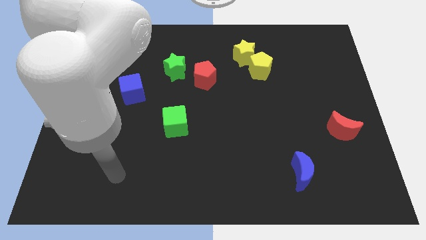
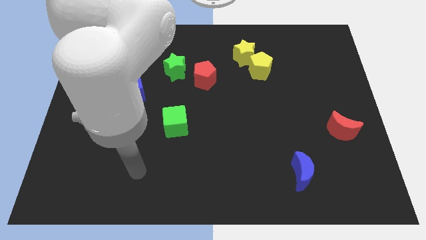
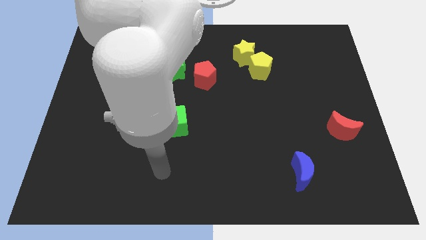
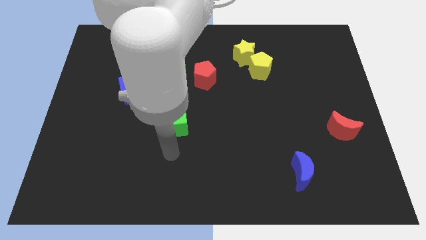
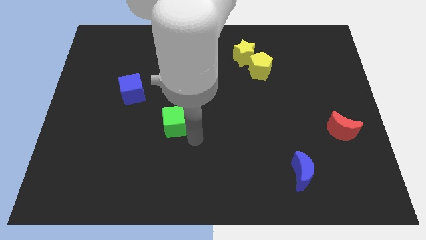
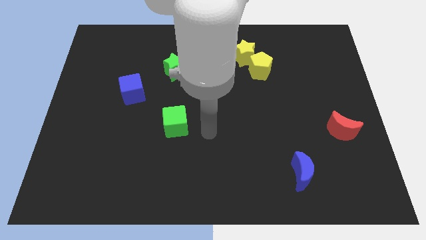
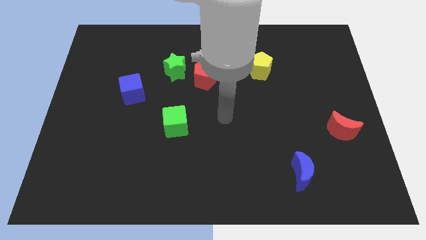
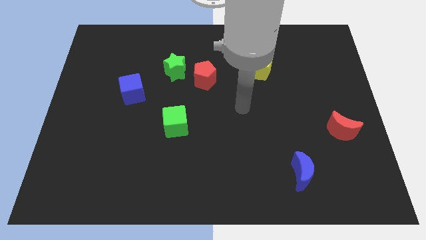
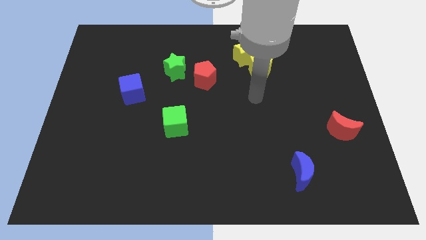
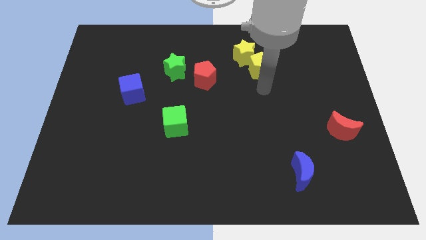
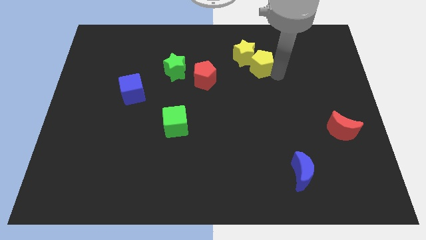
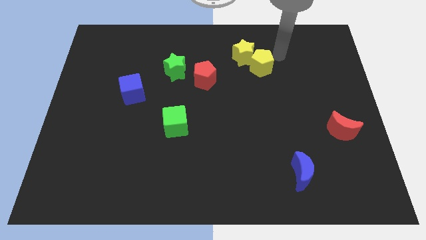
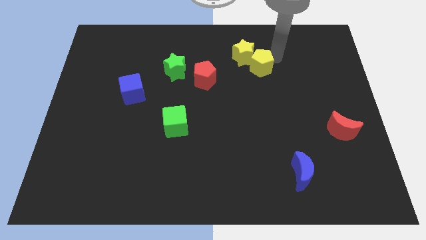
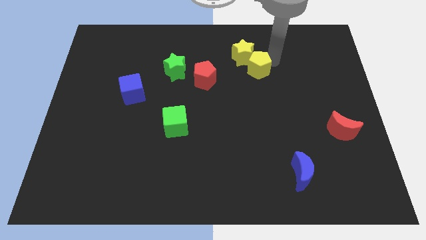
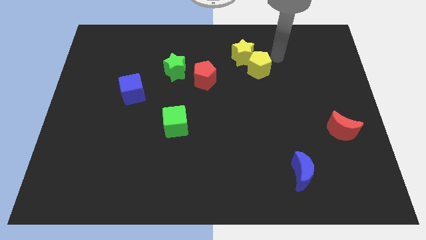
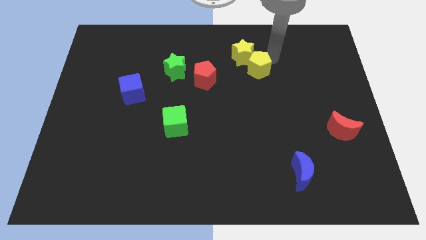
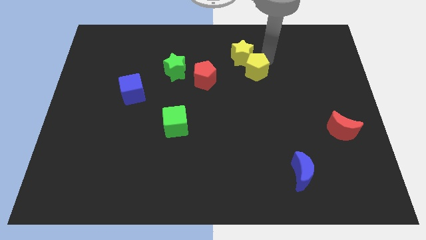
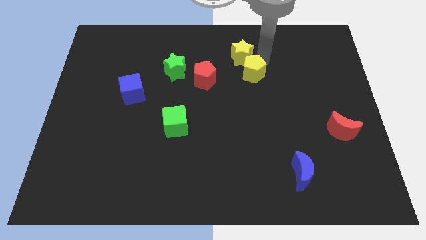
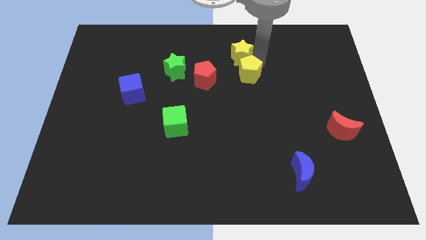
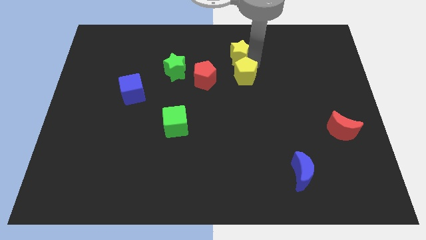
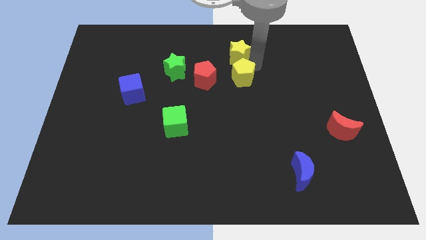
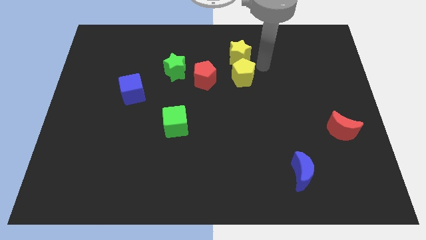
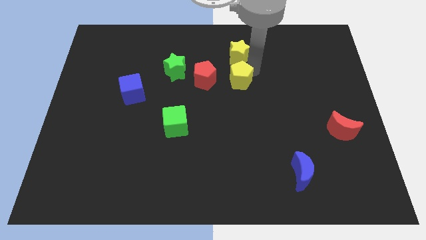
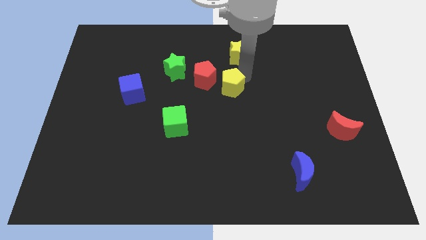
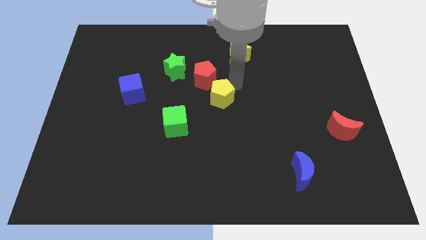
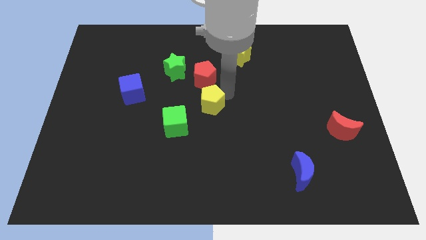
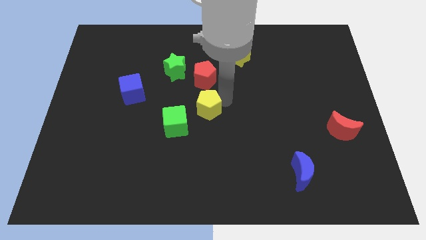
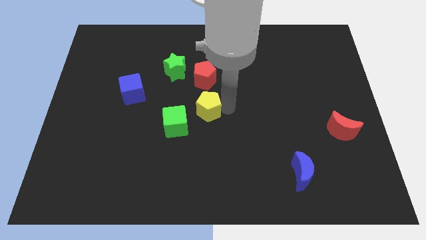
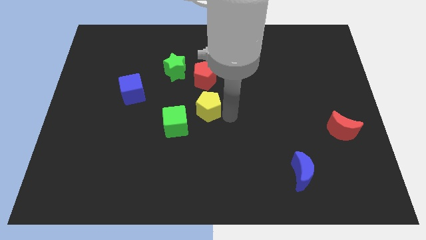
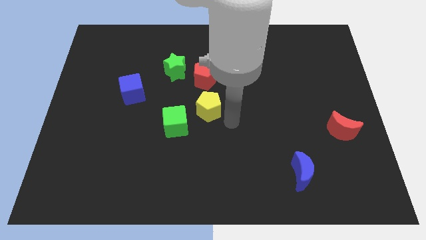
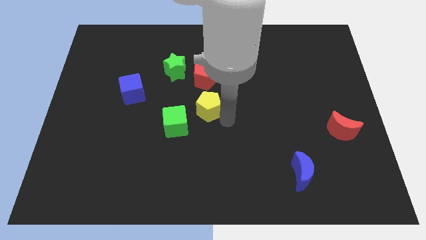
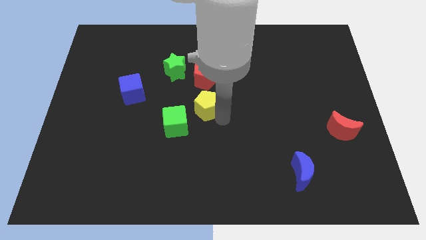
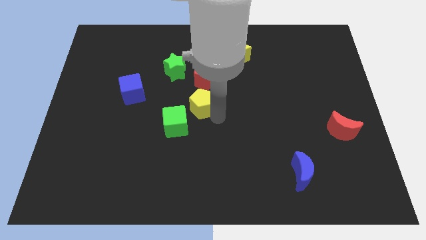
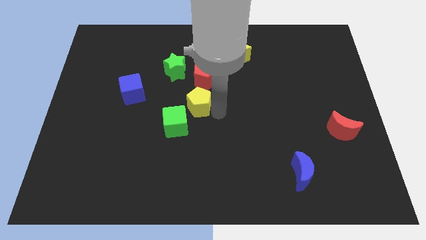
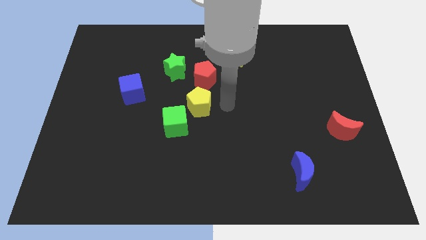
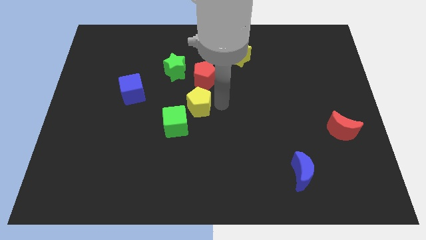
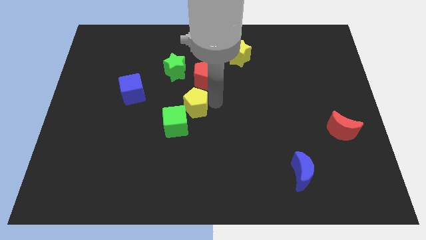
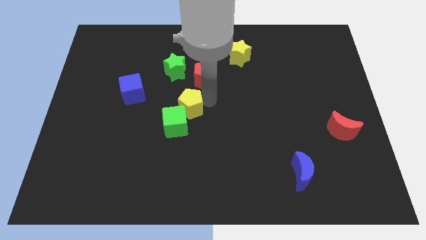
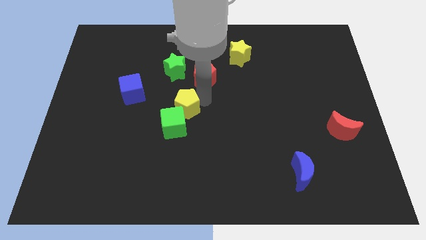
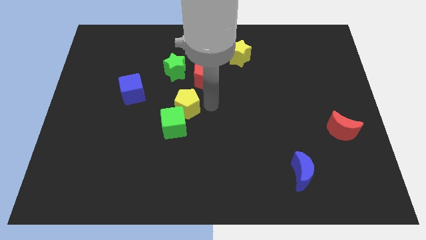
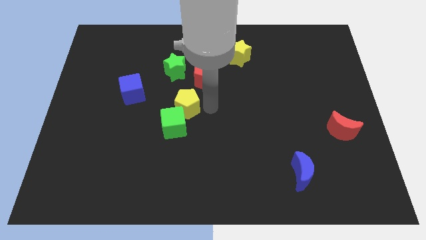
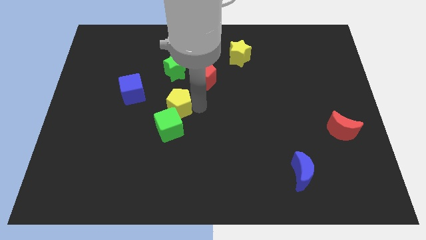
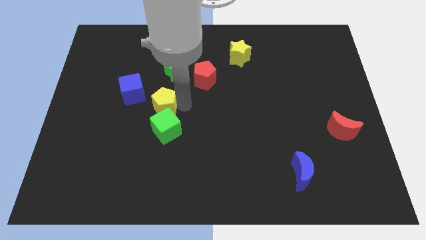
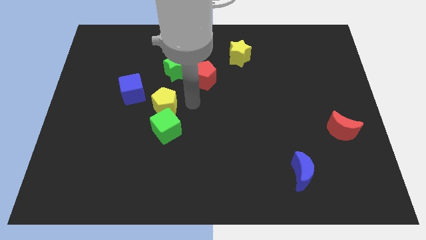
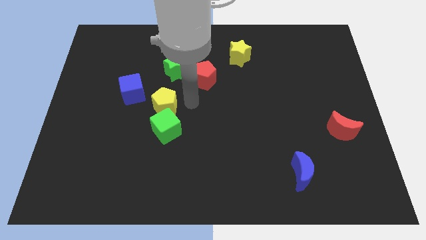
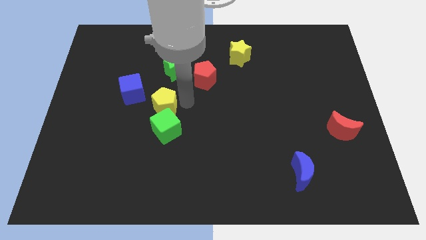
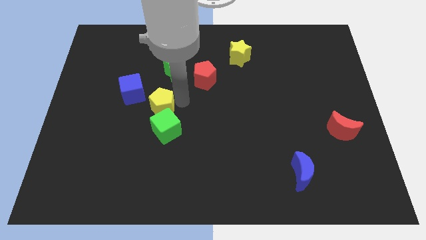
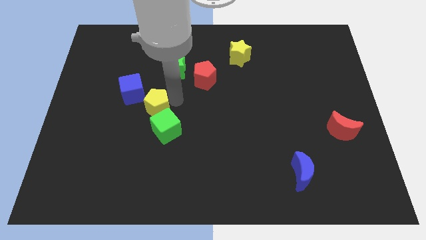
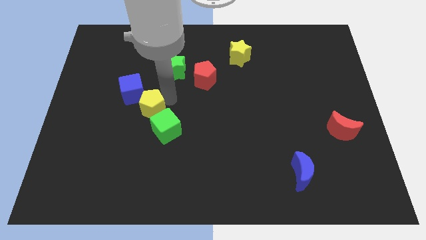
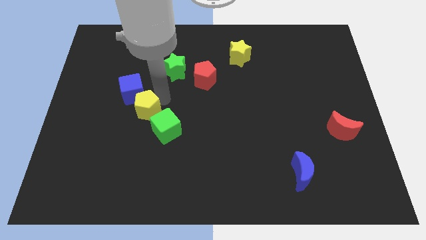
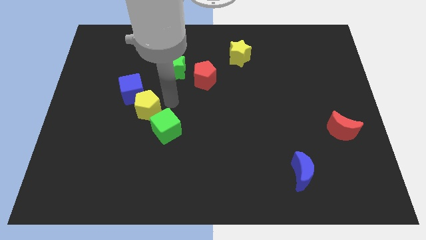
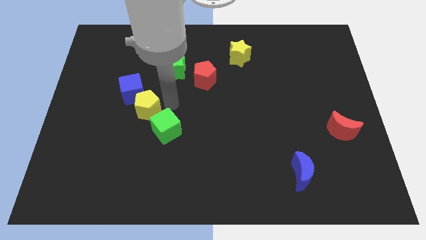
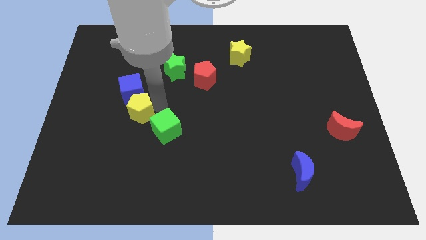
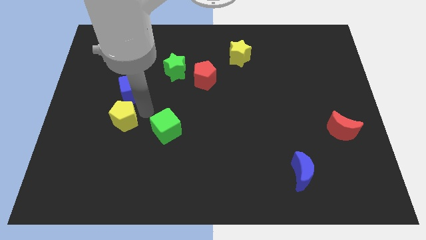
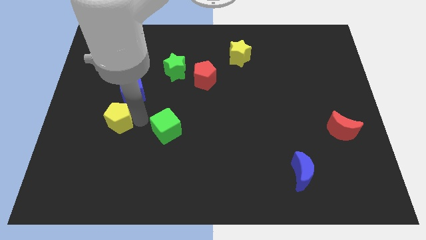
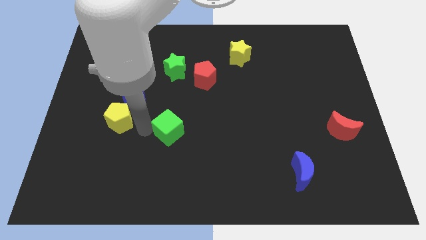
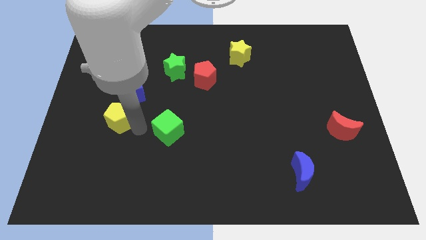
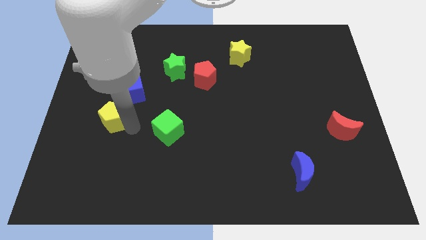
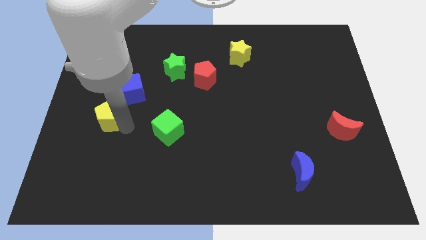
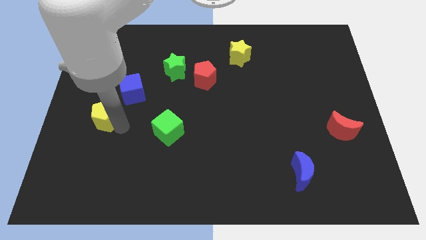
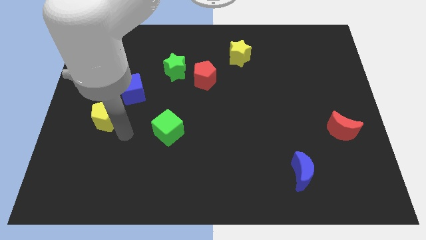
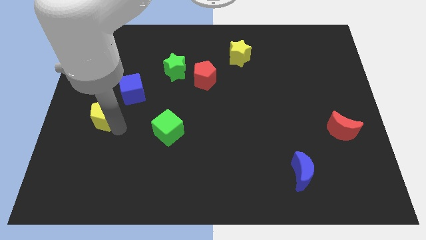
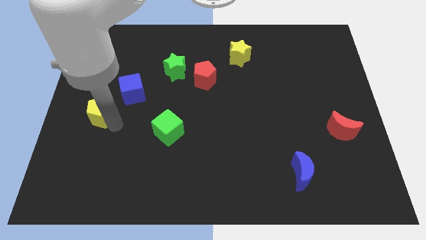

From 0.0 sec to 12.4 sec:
move the yellow pentagon to the left side of the board
